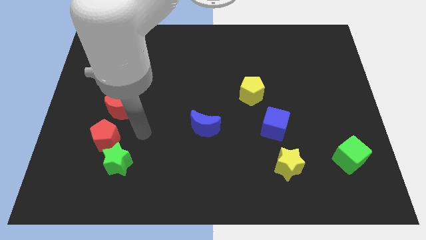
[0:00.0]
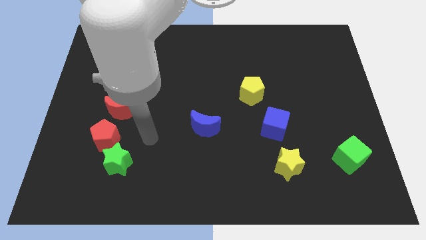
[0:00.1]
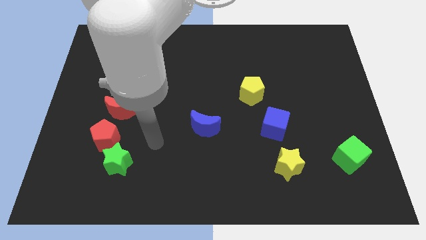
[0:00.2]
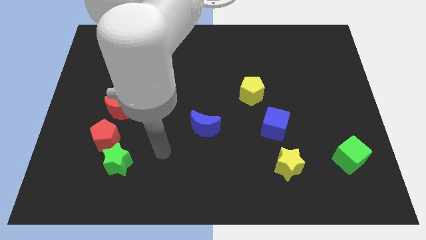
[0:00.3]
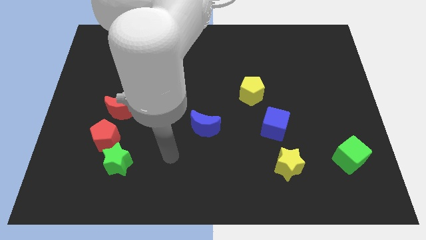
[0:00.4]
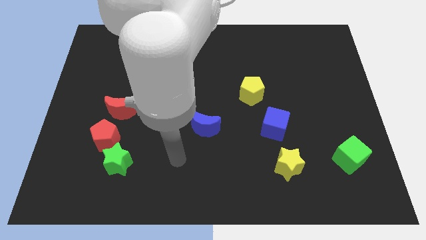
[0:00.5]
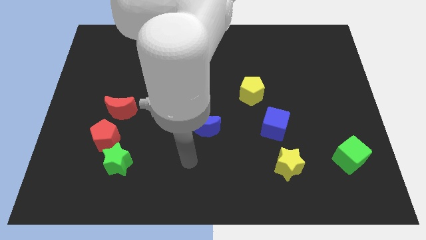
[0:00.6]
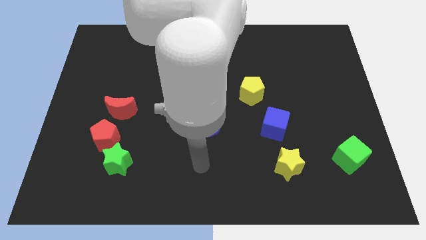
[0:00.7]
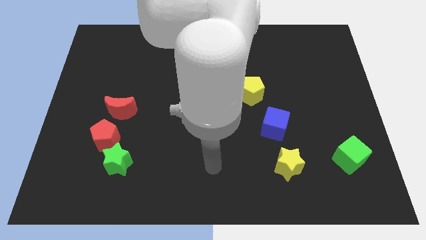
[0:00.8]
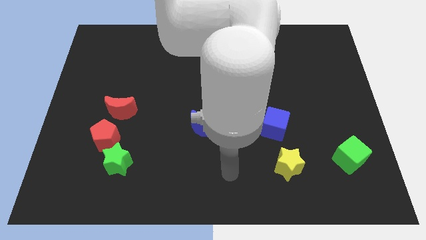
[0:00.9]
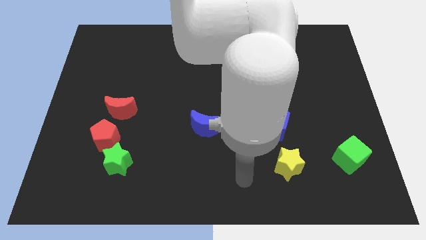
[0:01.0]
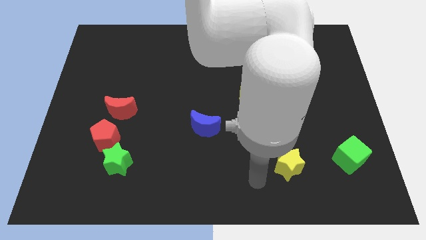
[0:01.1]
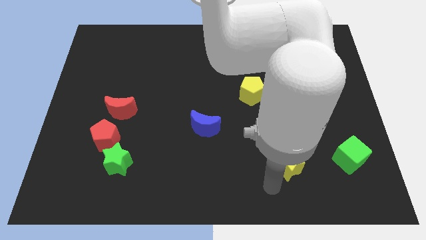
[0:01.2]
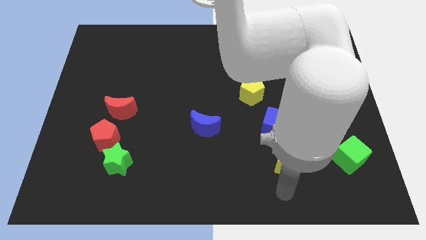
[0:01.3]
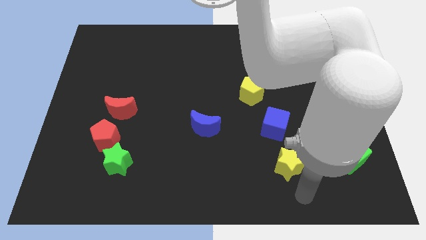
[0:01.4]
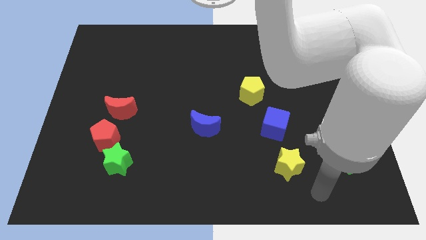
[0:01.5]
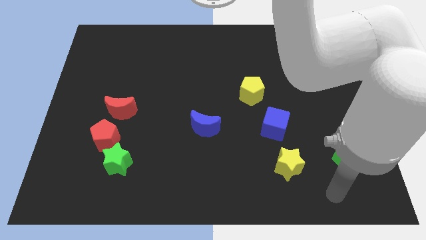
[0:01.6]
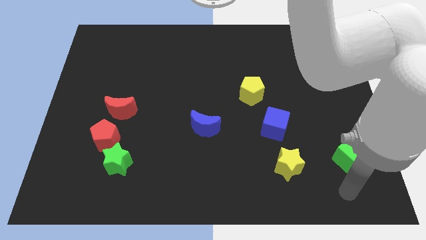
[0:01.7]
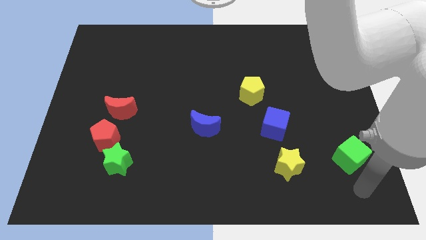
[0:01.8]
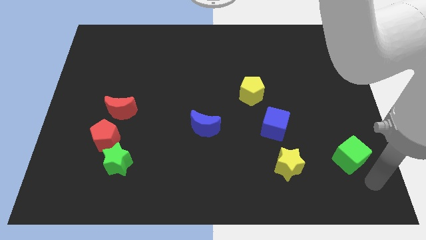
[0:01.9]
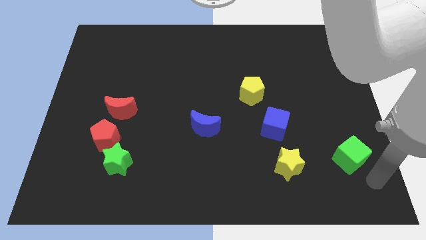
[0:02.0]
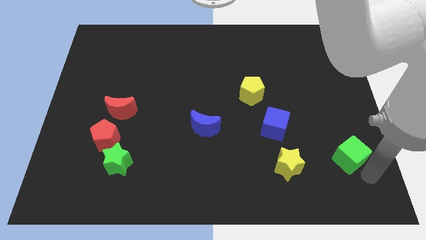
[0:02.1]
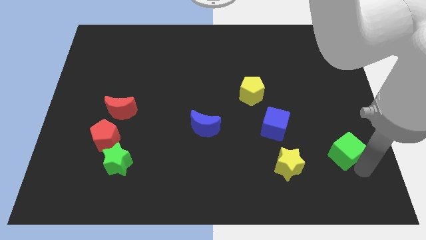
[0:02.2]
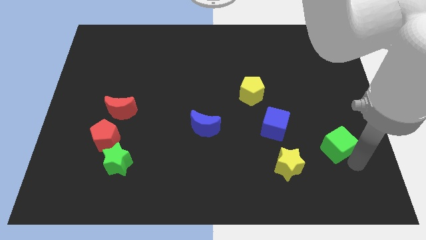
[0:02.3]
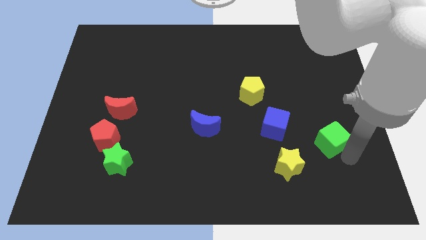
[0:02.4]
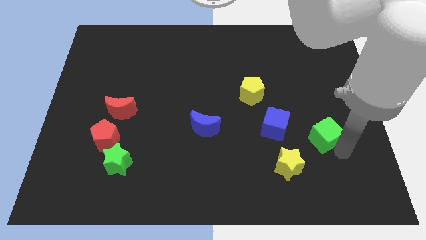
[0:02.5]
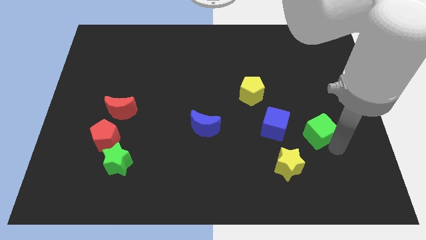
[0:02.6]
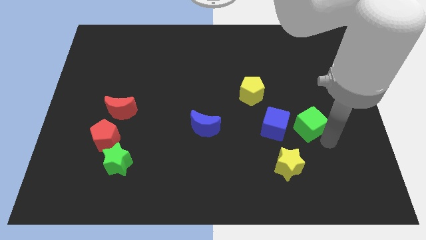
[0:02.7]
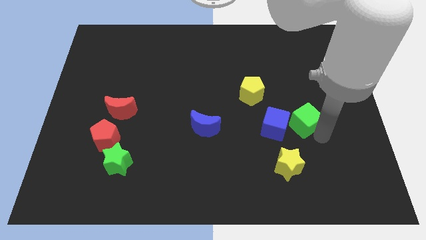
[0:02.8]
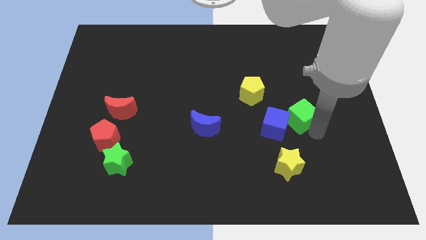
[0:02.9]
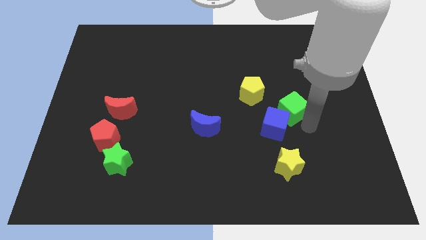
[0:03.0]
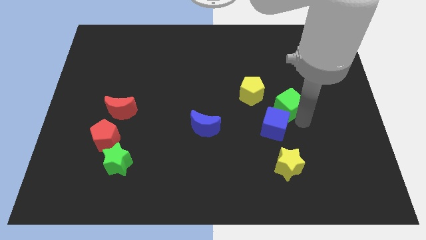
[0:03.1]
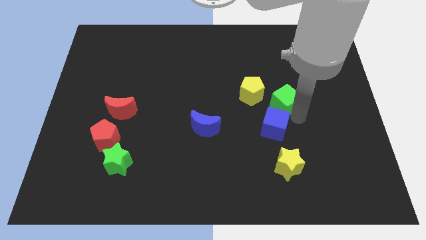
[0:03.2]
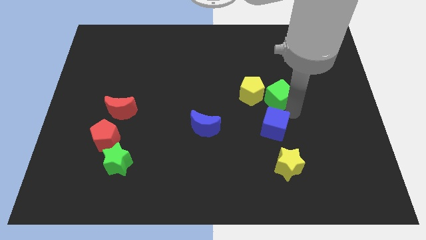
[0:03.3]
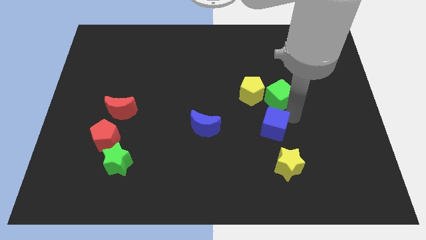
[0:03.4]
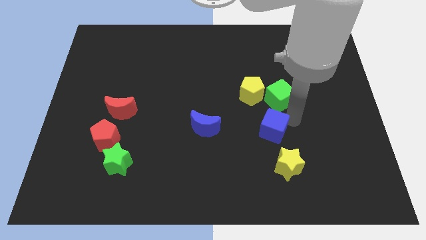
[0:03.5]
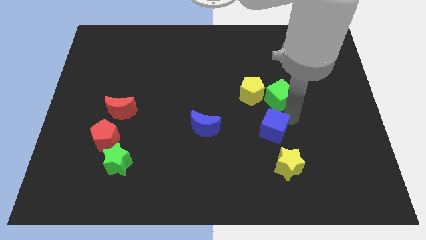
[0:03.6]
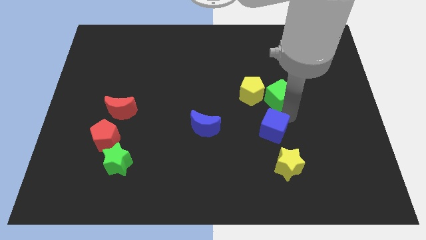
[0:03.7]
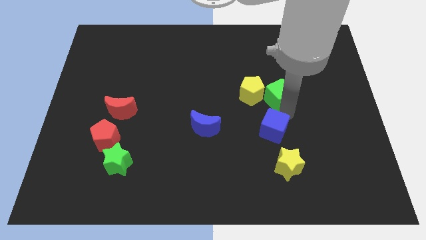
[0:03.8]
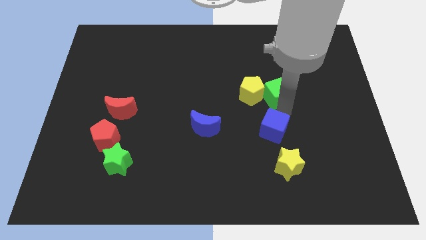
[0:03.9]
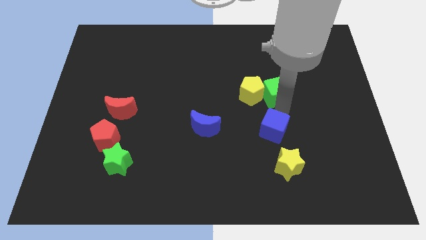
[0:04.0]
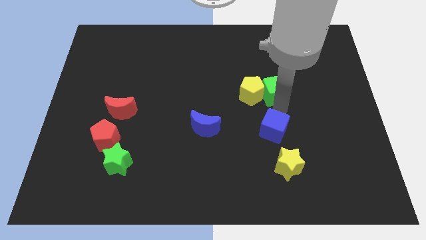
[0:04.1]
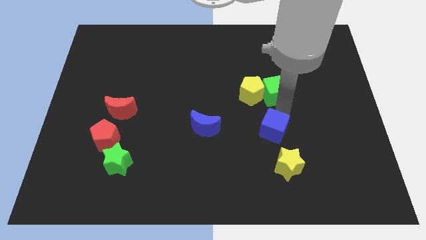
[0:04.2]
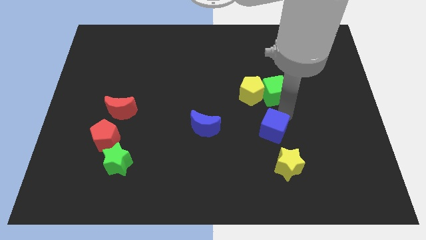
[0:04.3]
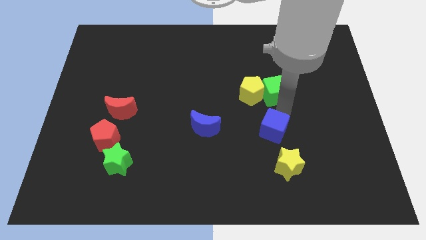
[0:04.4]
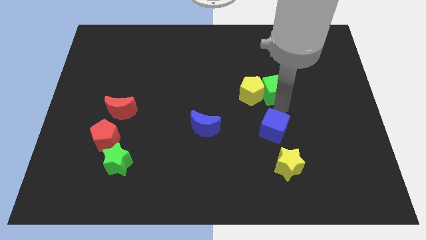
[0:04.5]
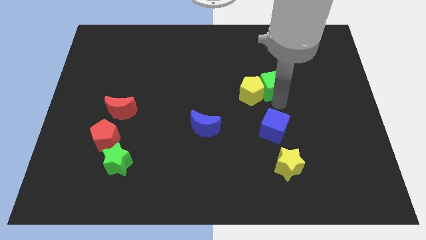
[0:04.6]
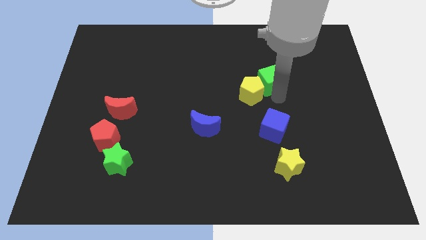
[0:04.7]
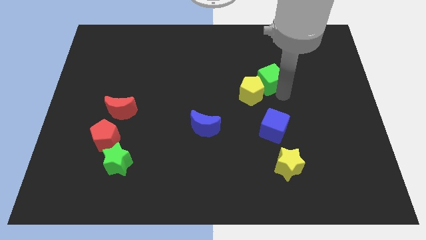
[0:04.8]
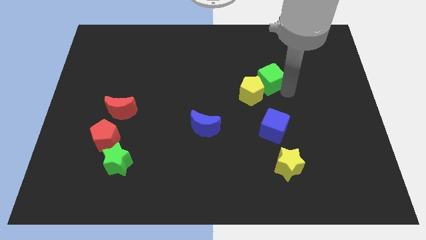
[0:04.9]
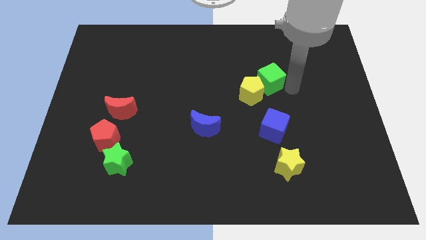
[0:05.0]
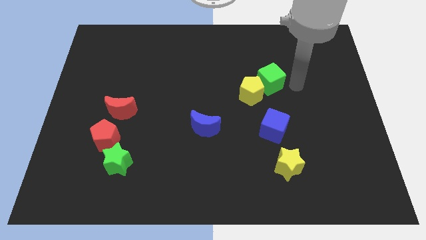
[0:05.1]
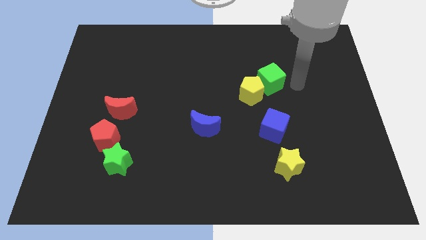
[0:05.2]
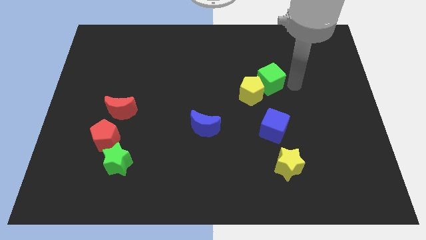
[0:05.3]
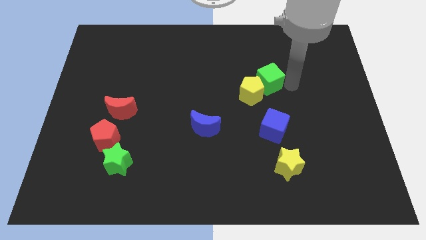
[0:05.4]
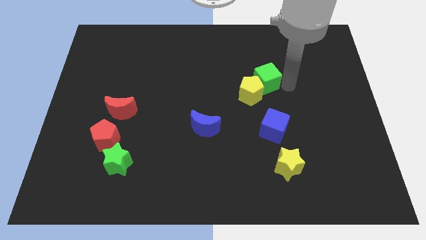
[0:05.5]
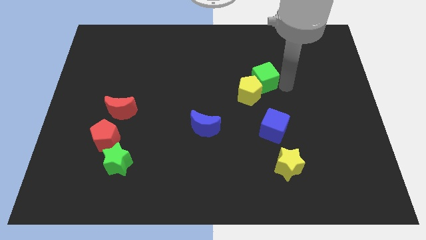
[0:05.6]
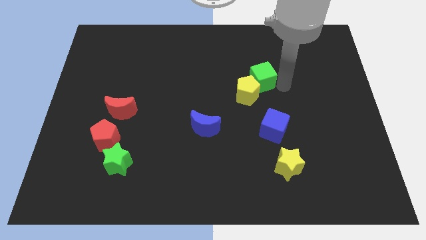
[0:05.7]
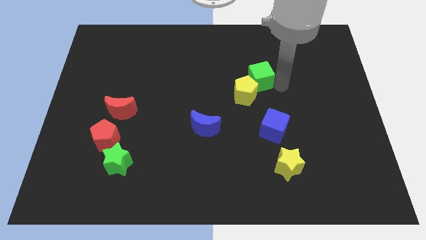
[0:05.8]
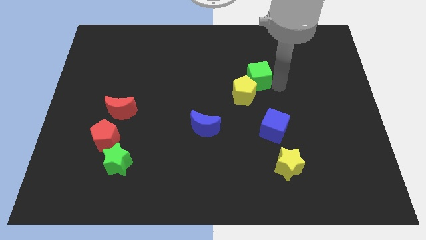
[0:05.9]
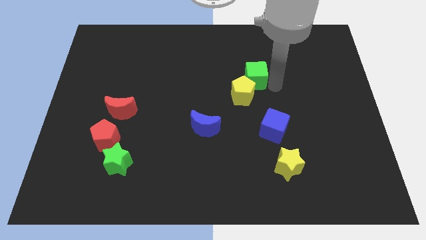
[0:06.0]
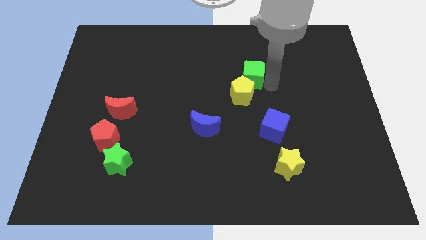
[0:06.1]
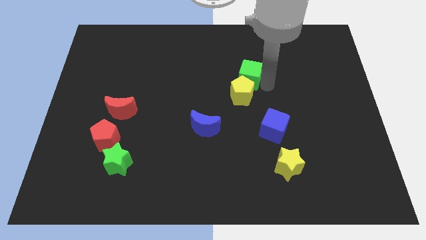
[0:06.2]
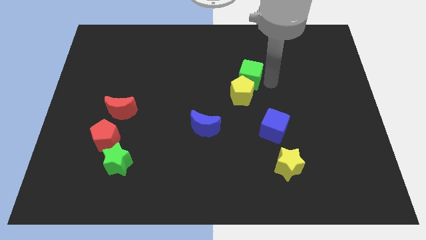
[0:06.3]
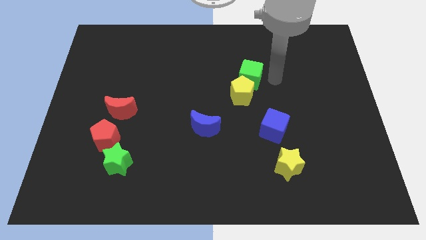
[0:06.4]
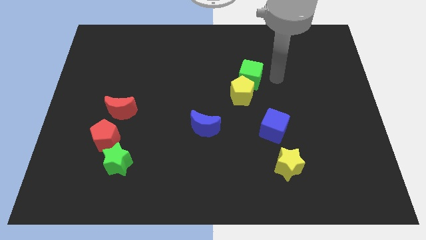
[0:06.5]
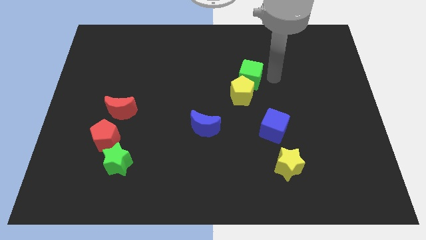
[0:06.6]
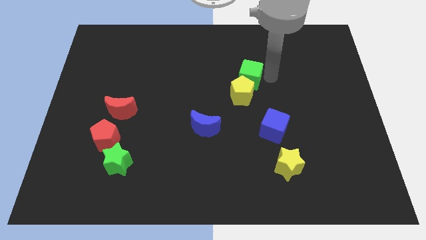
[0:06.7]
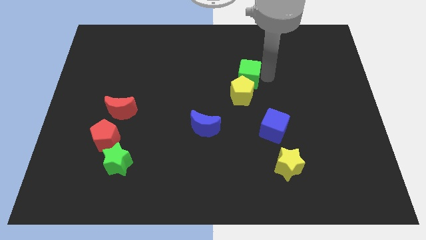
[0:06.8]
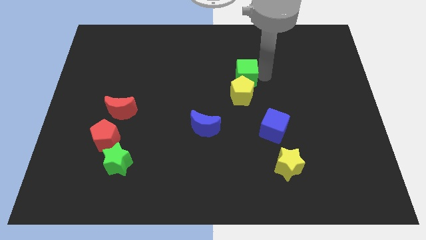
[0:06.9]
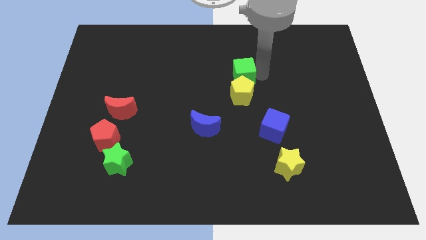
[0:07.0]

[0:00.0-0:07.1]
move the green cube to the top left side of the yellow pentagon
